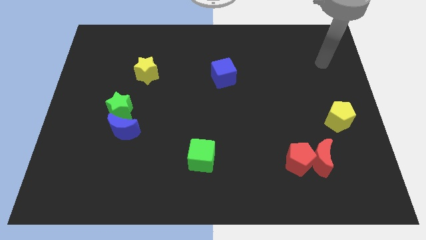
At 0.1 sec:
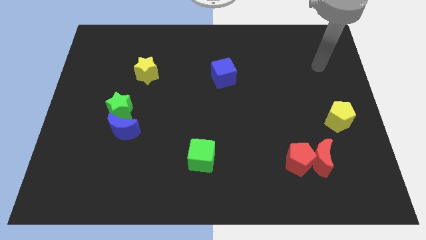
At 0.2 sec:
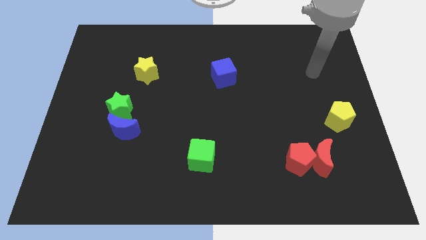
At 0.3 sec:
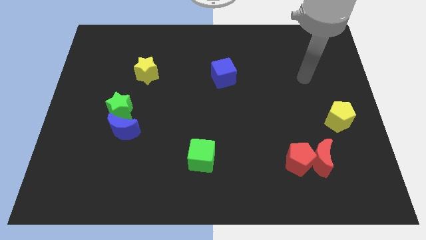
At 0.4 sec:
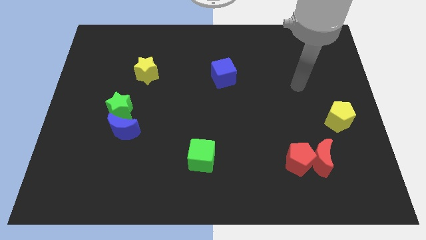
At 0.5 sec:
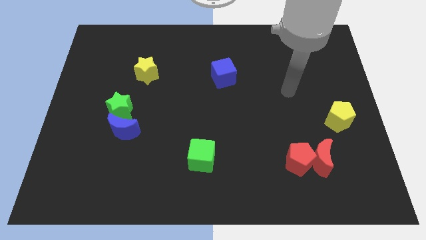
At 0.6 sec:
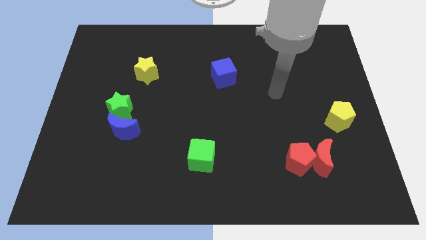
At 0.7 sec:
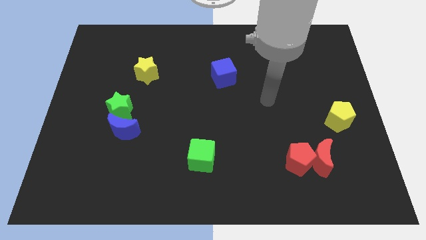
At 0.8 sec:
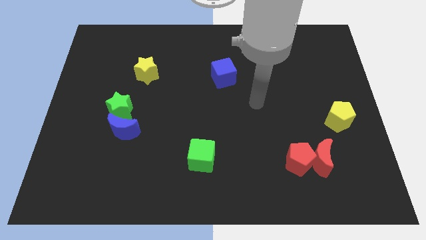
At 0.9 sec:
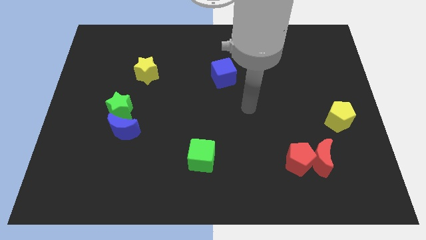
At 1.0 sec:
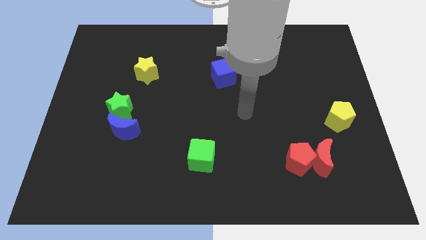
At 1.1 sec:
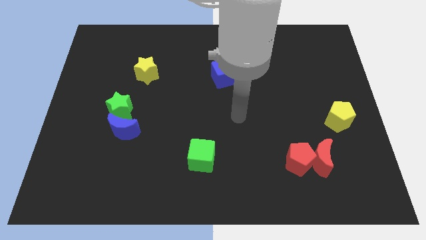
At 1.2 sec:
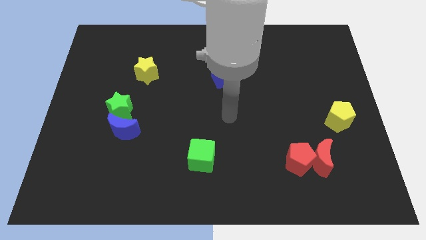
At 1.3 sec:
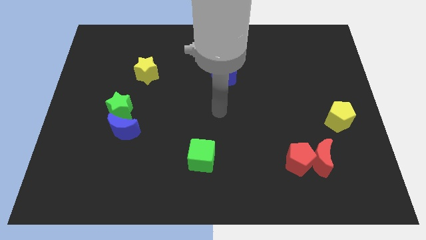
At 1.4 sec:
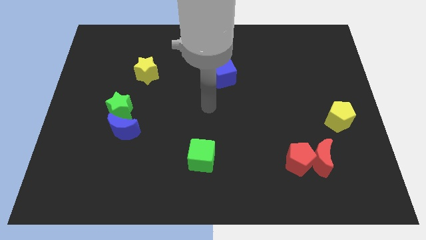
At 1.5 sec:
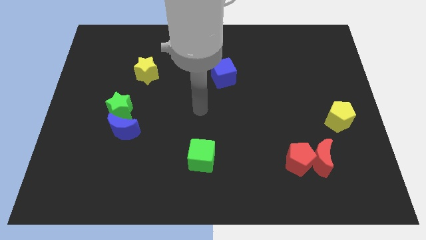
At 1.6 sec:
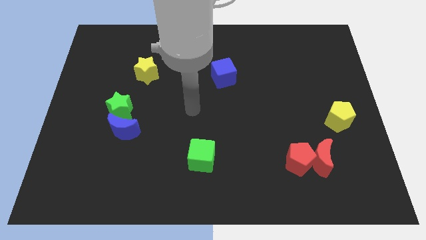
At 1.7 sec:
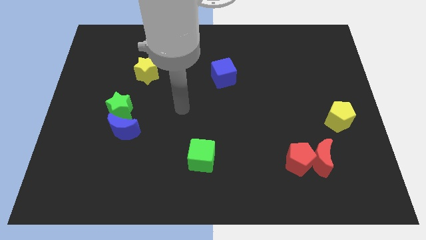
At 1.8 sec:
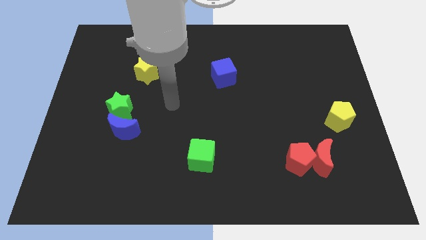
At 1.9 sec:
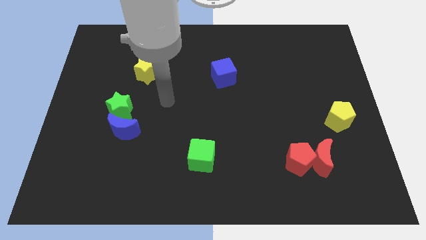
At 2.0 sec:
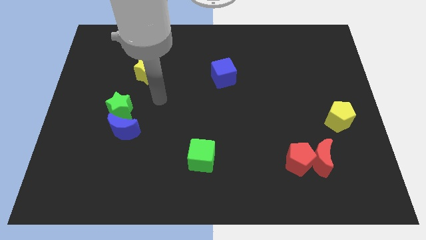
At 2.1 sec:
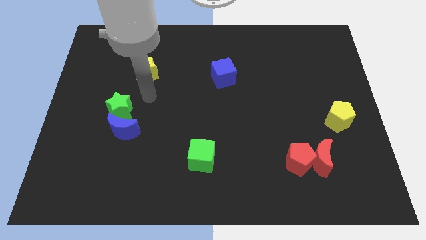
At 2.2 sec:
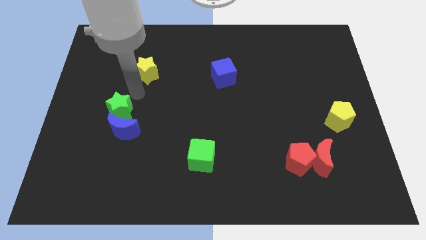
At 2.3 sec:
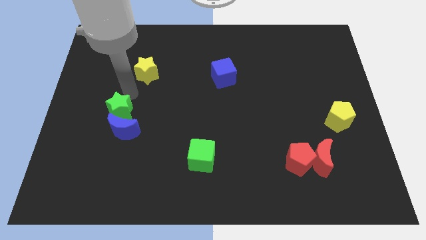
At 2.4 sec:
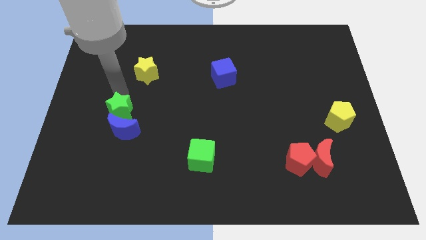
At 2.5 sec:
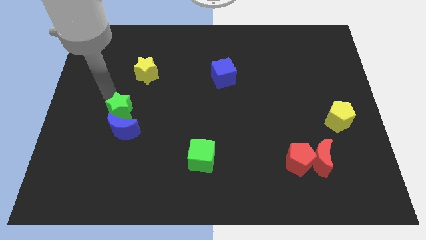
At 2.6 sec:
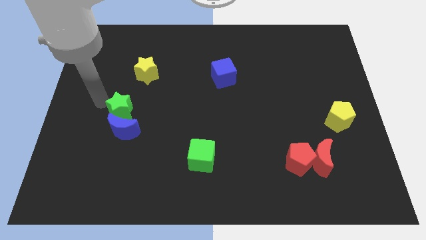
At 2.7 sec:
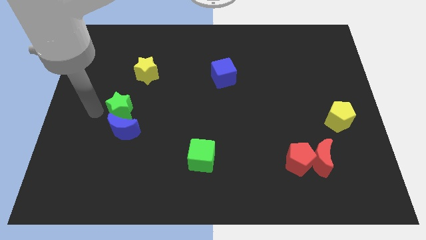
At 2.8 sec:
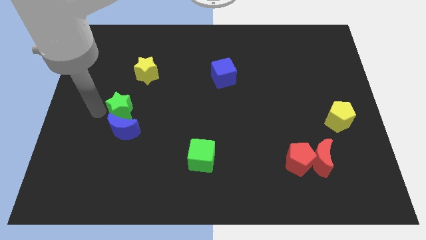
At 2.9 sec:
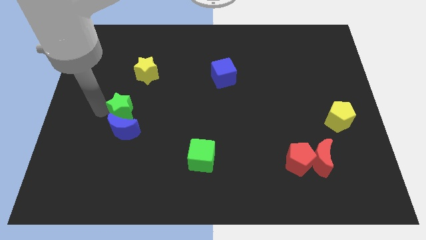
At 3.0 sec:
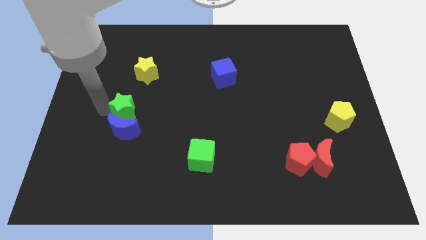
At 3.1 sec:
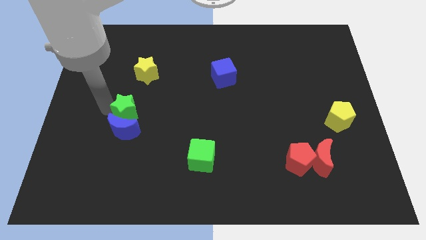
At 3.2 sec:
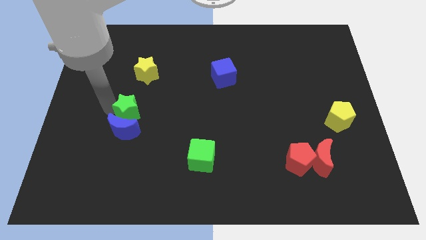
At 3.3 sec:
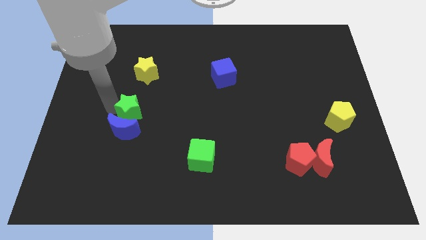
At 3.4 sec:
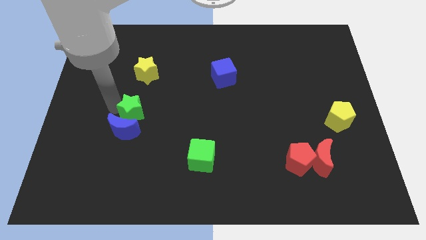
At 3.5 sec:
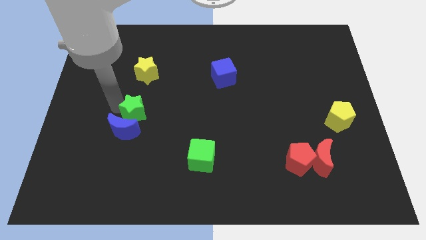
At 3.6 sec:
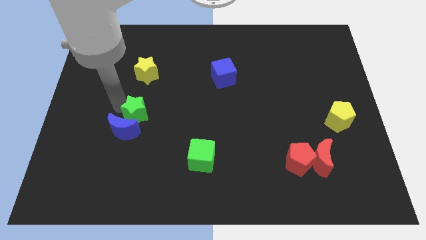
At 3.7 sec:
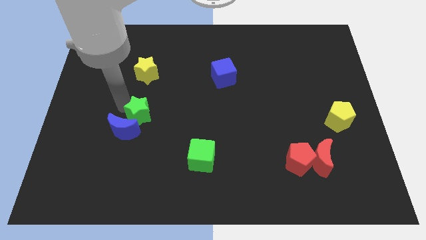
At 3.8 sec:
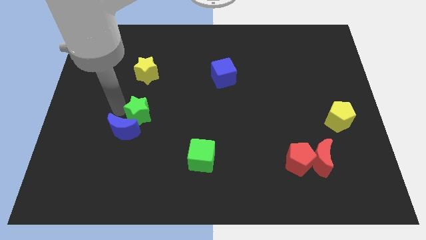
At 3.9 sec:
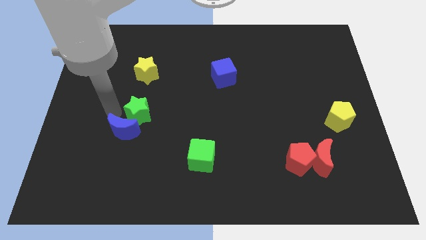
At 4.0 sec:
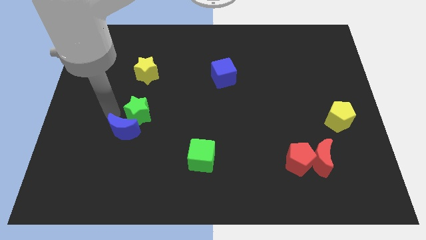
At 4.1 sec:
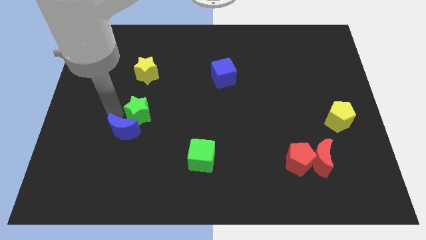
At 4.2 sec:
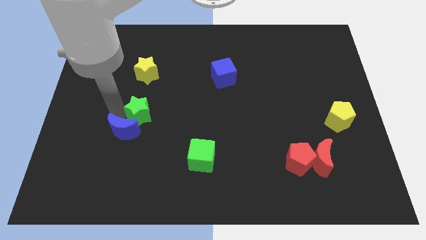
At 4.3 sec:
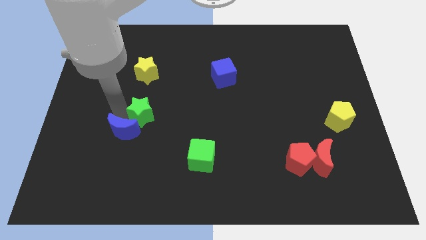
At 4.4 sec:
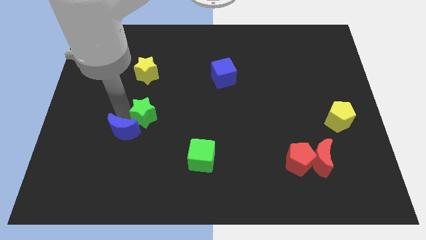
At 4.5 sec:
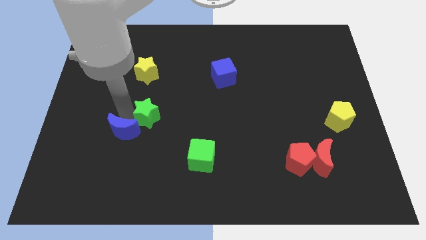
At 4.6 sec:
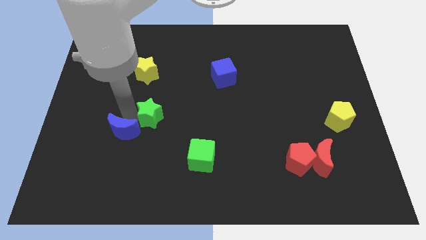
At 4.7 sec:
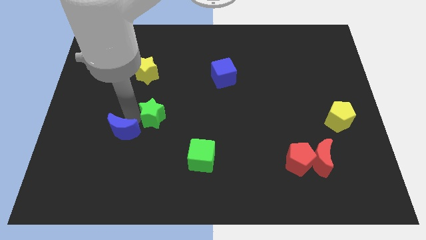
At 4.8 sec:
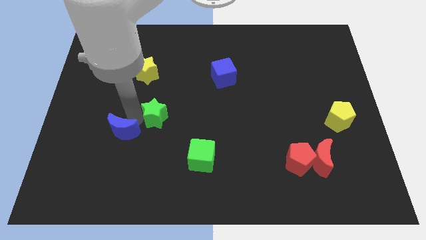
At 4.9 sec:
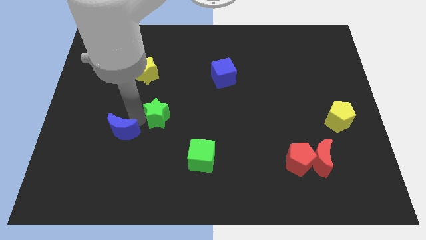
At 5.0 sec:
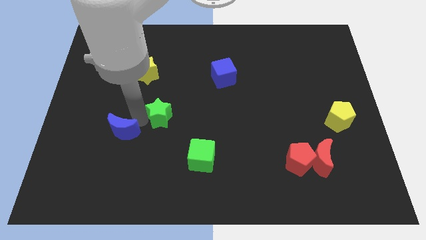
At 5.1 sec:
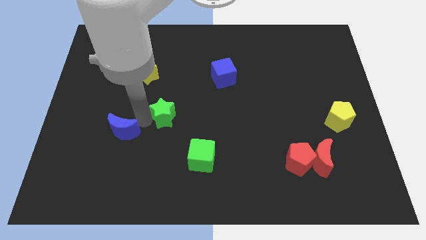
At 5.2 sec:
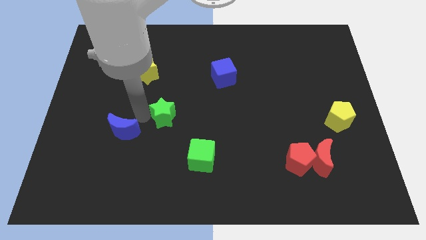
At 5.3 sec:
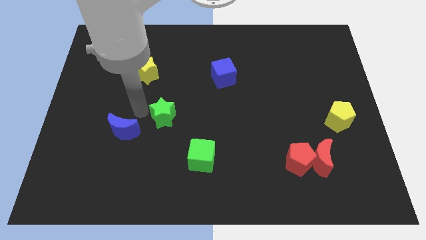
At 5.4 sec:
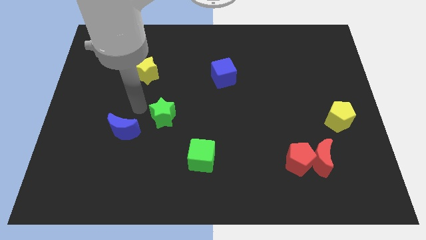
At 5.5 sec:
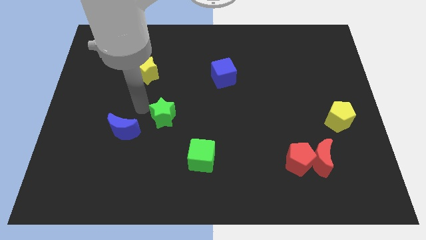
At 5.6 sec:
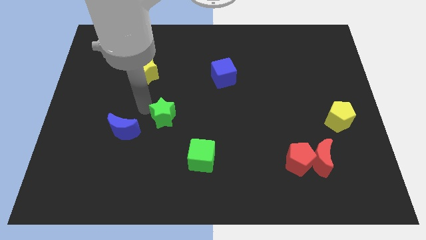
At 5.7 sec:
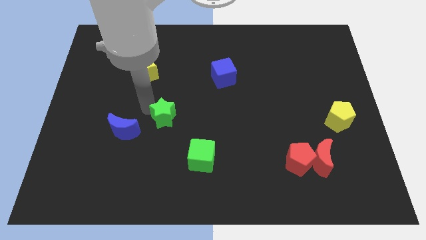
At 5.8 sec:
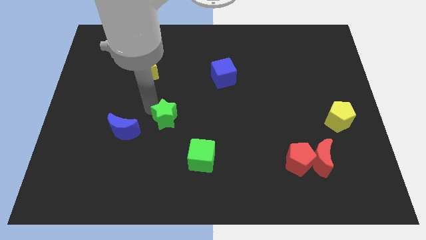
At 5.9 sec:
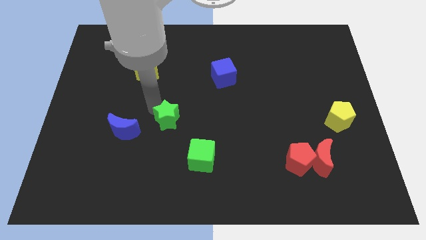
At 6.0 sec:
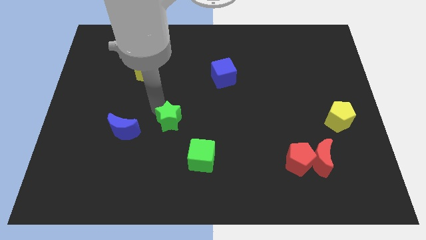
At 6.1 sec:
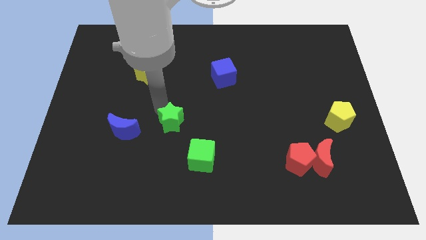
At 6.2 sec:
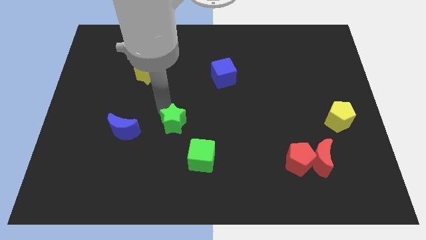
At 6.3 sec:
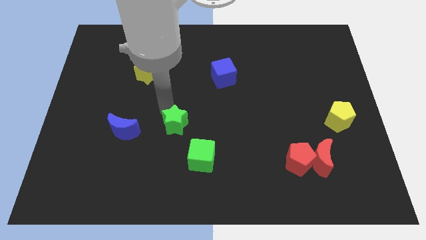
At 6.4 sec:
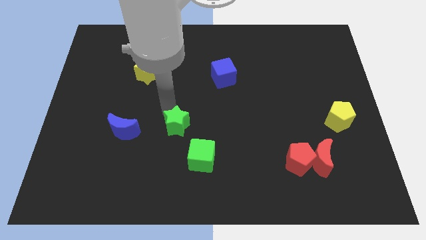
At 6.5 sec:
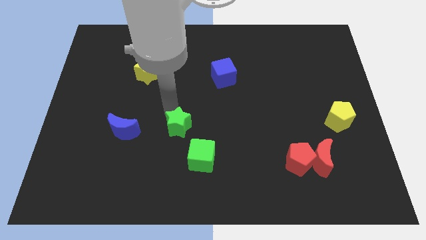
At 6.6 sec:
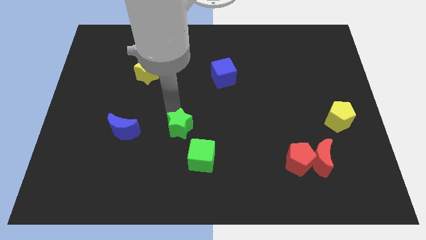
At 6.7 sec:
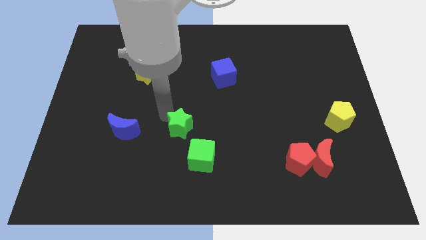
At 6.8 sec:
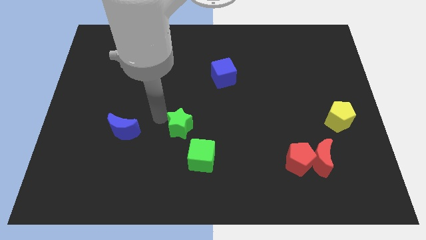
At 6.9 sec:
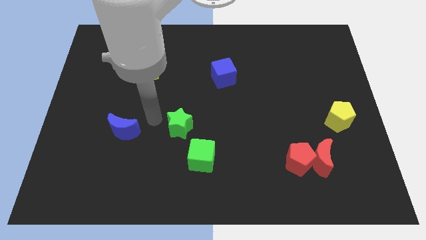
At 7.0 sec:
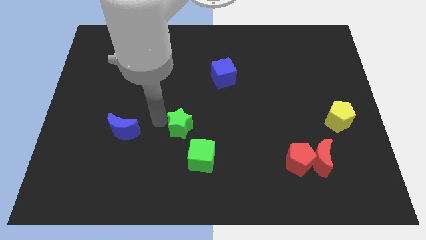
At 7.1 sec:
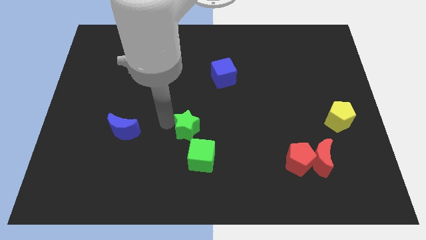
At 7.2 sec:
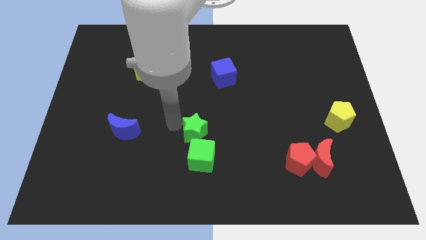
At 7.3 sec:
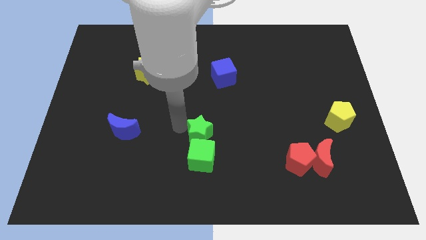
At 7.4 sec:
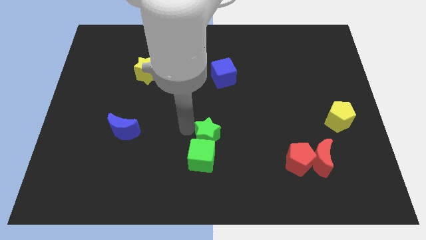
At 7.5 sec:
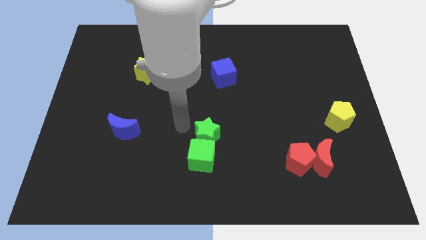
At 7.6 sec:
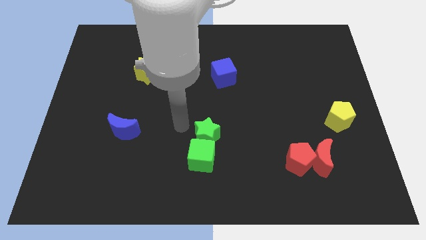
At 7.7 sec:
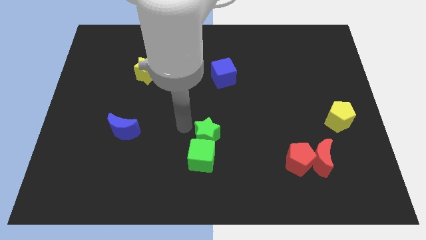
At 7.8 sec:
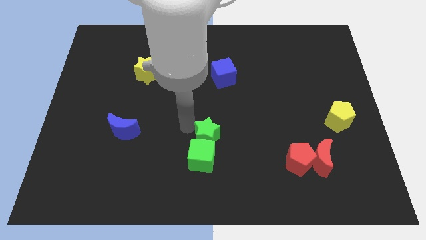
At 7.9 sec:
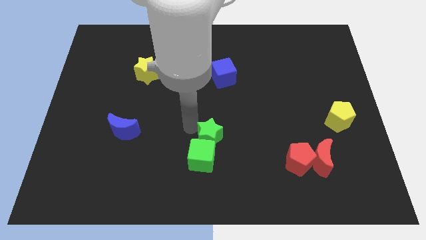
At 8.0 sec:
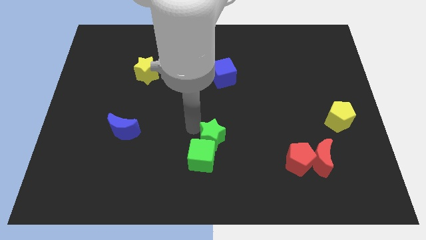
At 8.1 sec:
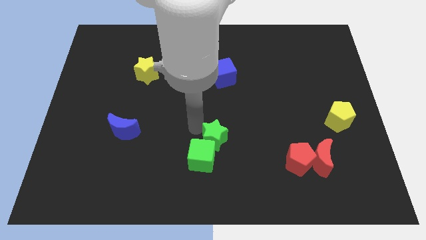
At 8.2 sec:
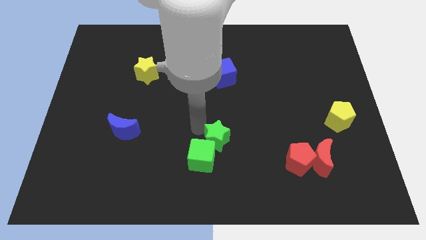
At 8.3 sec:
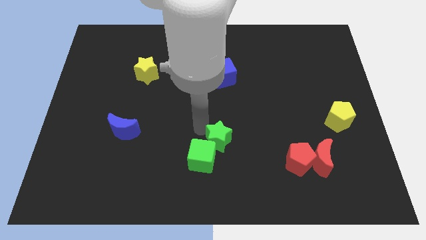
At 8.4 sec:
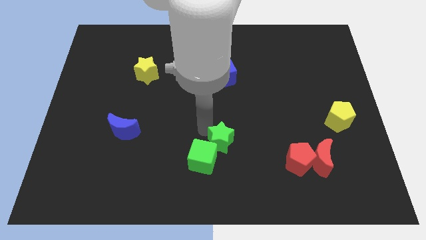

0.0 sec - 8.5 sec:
slide the green star right of the green cube
